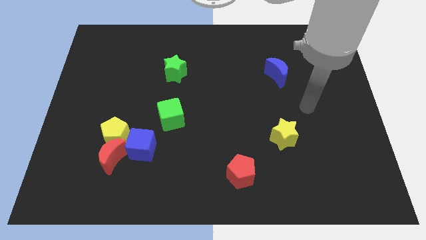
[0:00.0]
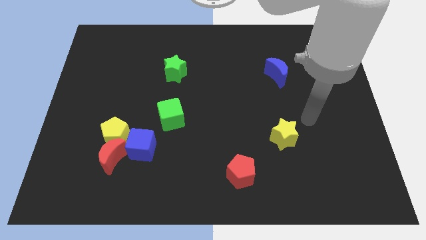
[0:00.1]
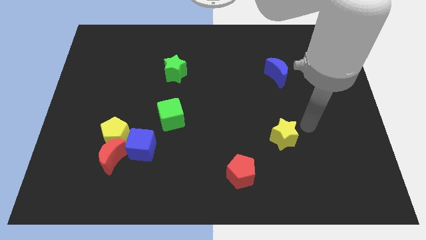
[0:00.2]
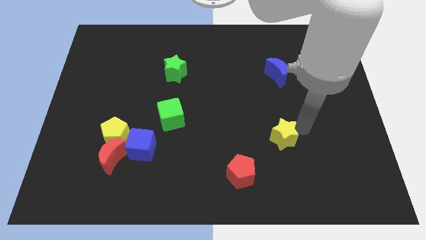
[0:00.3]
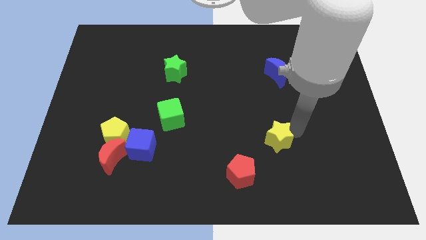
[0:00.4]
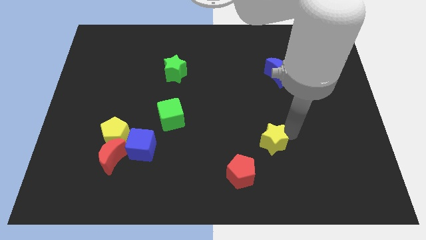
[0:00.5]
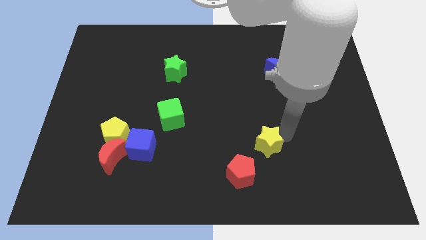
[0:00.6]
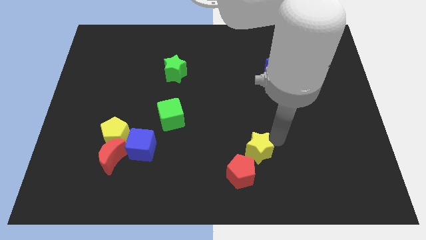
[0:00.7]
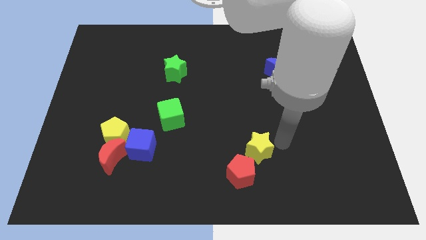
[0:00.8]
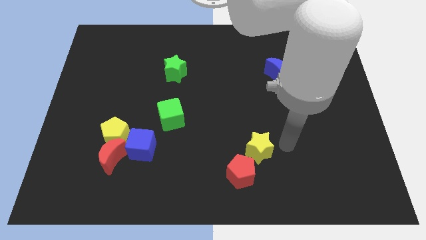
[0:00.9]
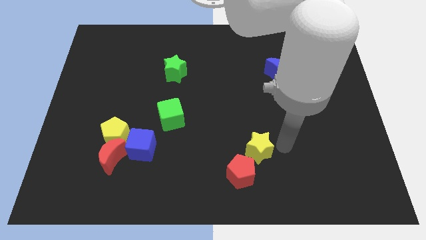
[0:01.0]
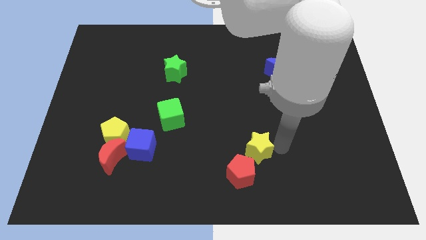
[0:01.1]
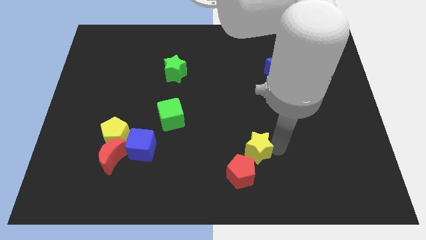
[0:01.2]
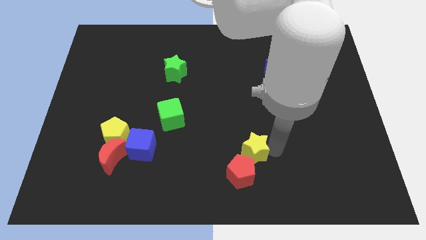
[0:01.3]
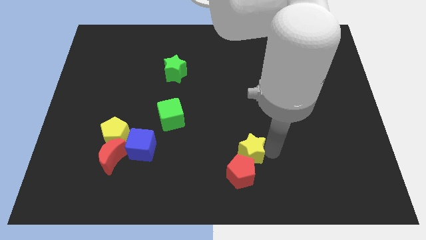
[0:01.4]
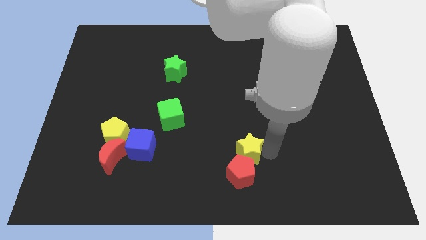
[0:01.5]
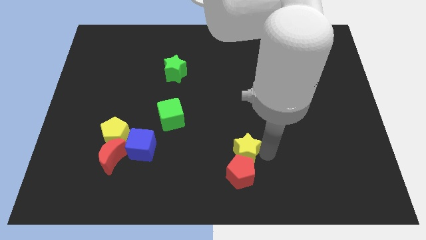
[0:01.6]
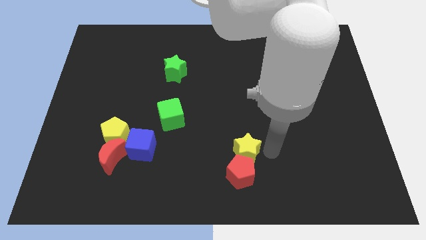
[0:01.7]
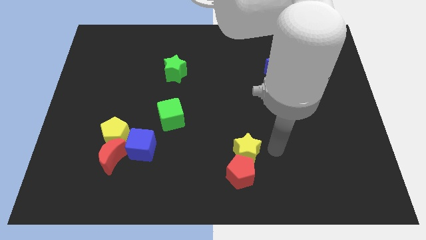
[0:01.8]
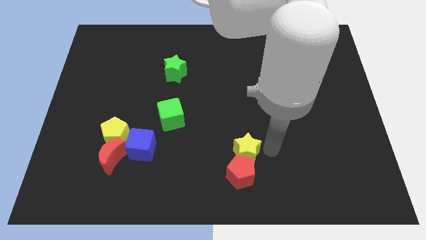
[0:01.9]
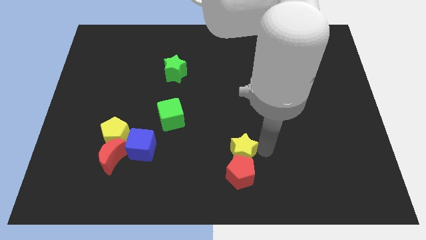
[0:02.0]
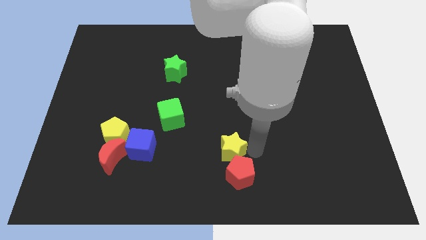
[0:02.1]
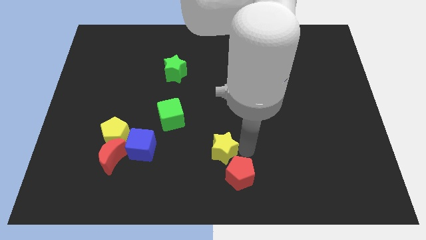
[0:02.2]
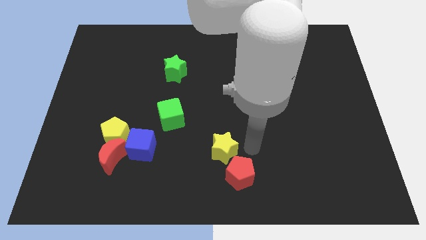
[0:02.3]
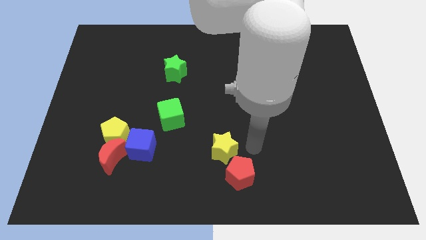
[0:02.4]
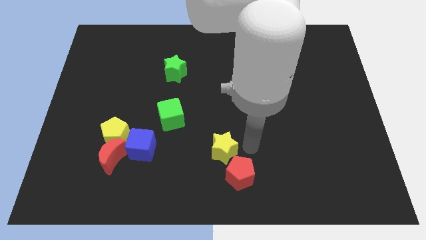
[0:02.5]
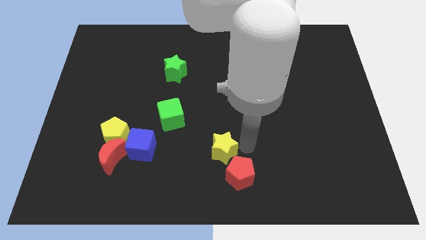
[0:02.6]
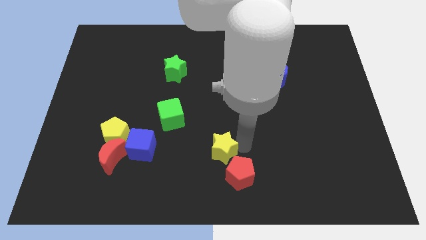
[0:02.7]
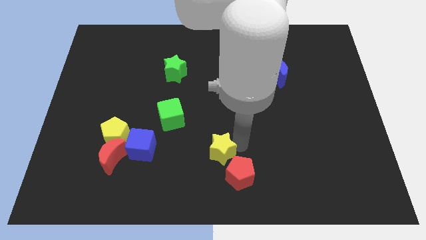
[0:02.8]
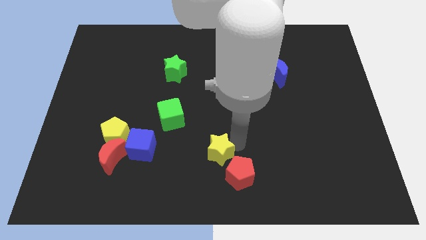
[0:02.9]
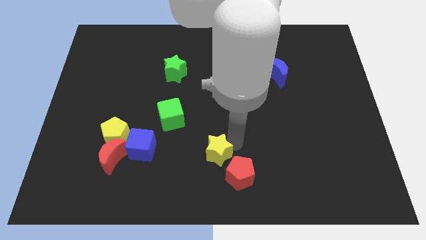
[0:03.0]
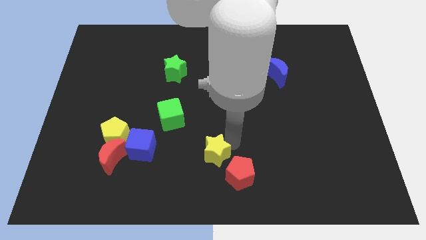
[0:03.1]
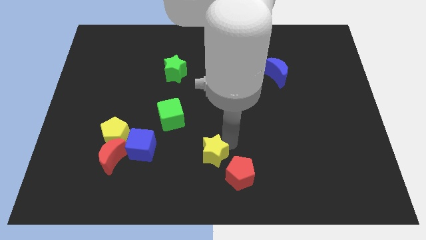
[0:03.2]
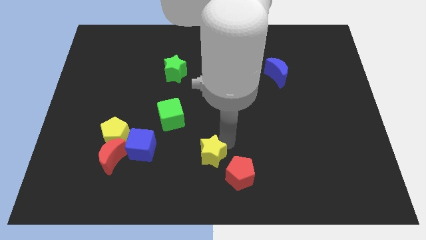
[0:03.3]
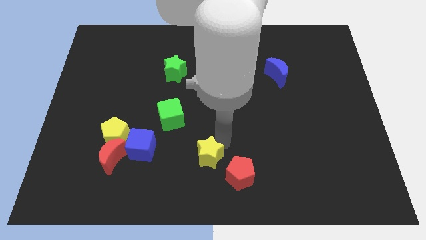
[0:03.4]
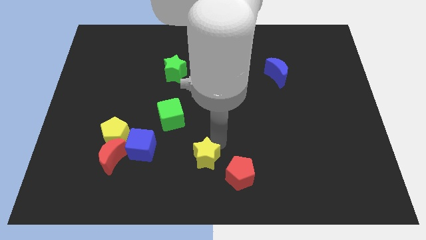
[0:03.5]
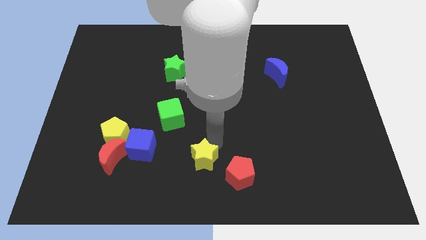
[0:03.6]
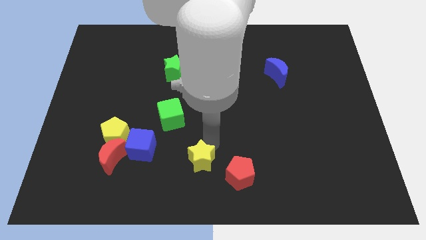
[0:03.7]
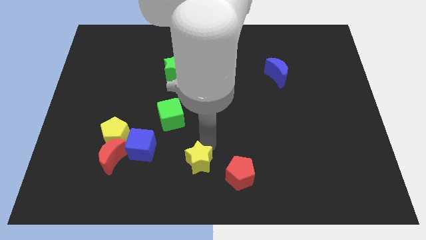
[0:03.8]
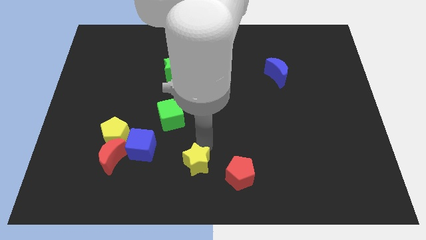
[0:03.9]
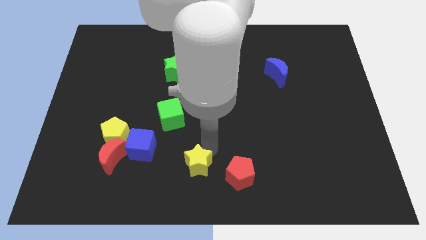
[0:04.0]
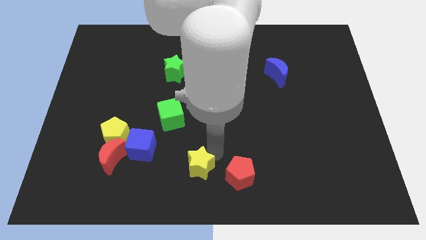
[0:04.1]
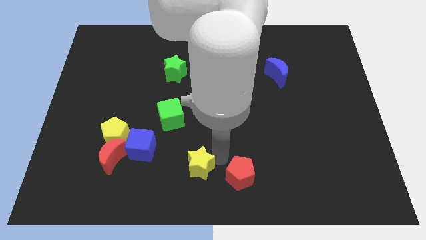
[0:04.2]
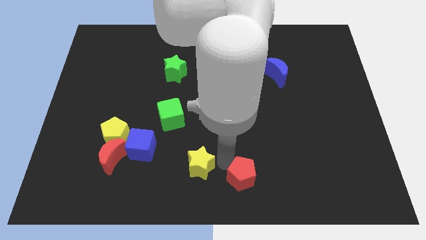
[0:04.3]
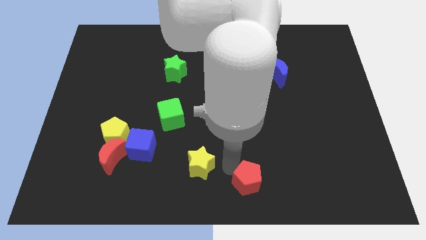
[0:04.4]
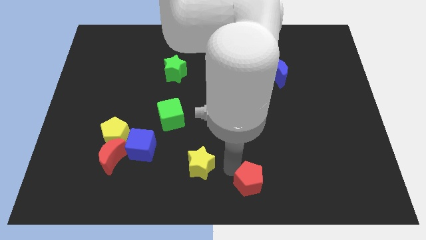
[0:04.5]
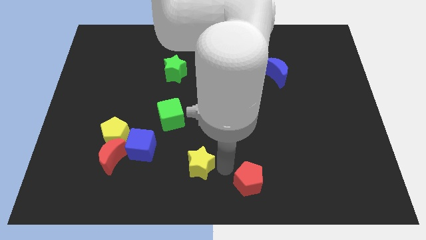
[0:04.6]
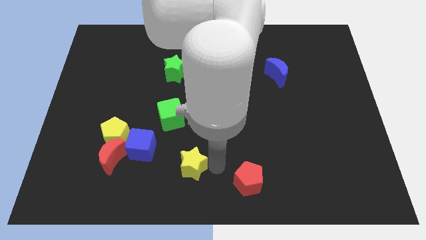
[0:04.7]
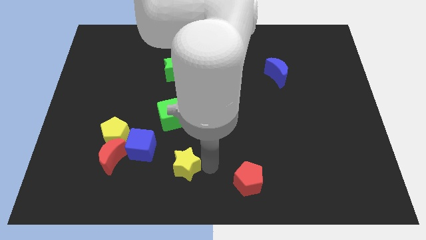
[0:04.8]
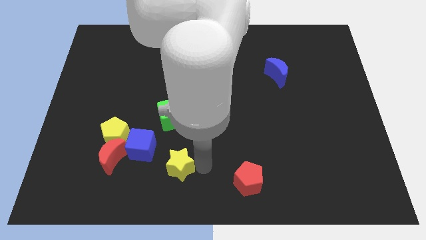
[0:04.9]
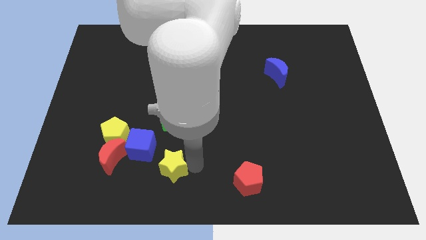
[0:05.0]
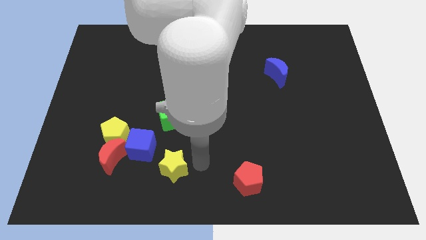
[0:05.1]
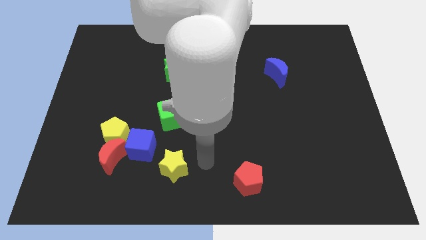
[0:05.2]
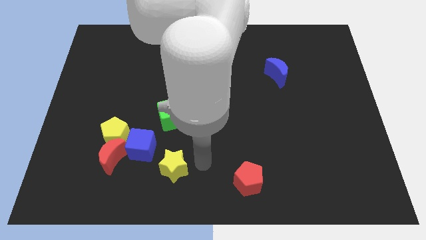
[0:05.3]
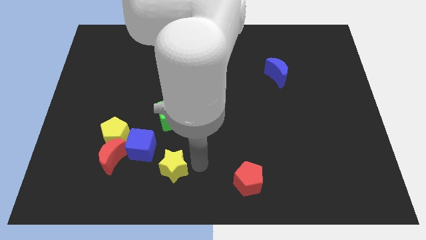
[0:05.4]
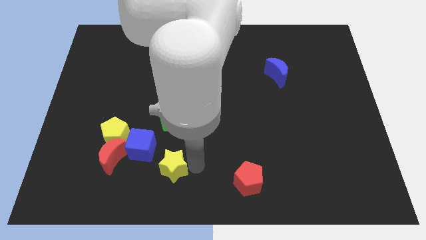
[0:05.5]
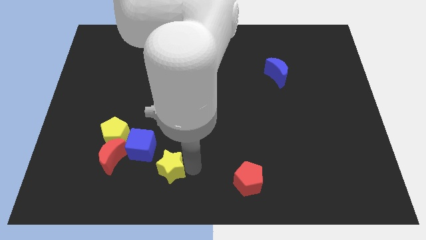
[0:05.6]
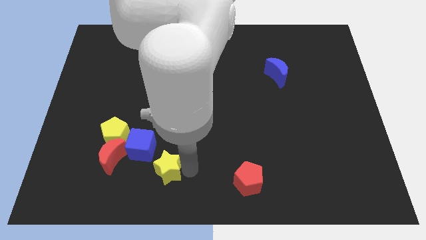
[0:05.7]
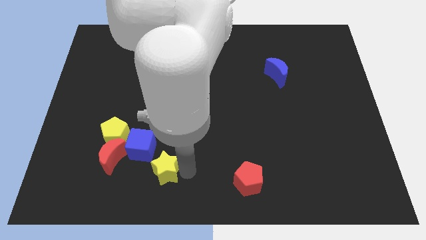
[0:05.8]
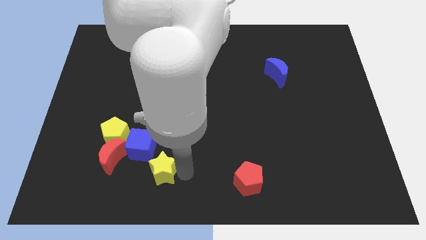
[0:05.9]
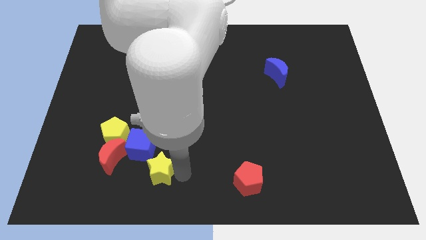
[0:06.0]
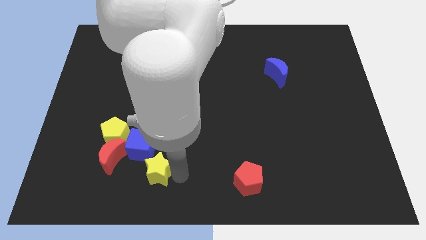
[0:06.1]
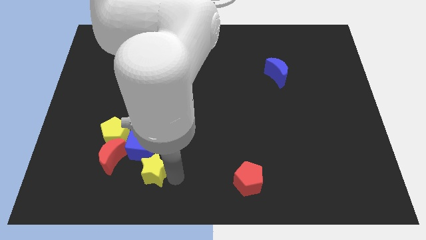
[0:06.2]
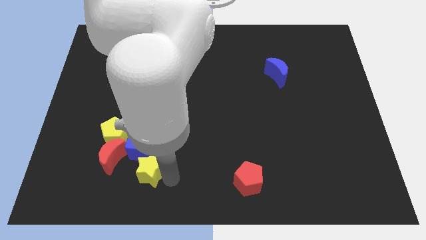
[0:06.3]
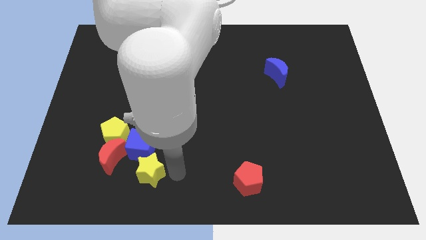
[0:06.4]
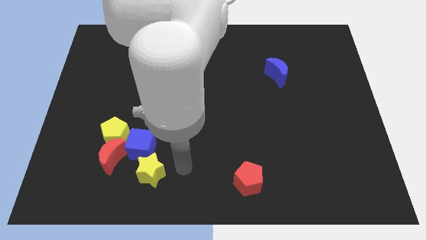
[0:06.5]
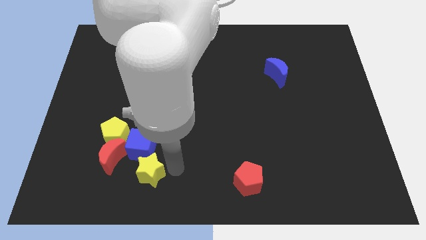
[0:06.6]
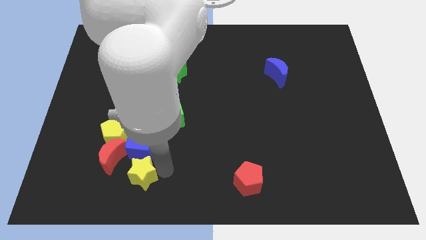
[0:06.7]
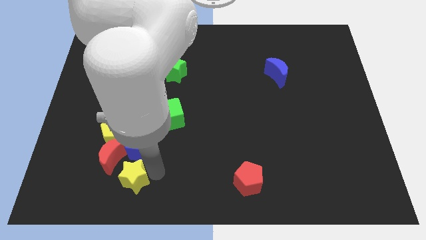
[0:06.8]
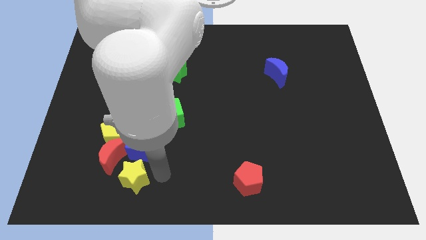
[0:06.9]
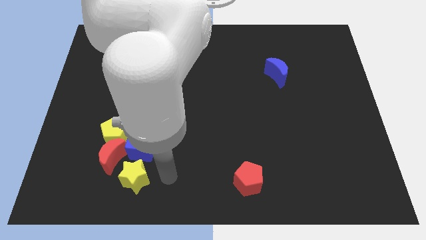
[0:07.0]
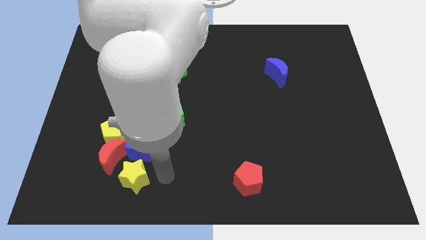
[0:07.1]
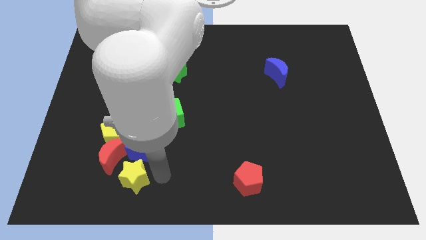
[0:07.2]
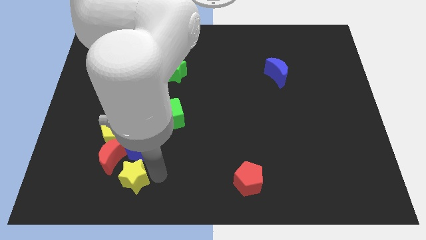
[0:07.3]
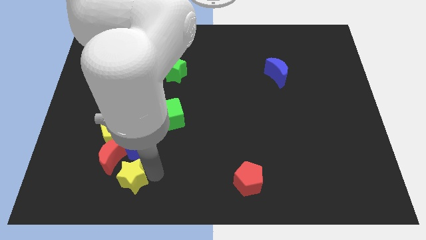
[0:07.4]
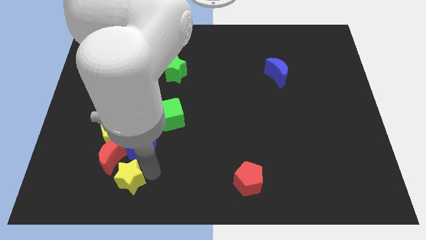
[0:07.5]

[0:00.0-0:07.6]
slide the yellow star to the bottom side of the yellow pentagon

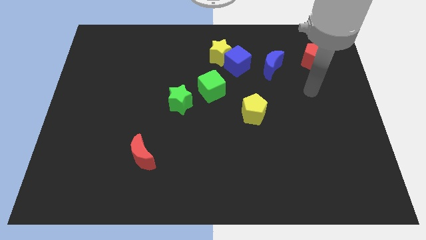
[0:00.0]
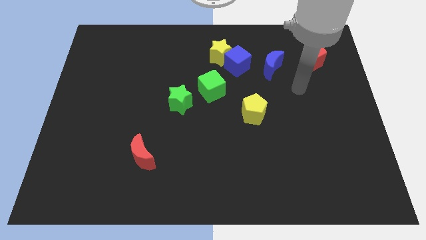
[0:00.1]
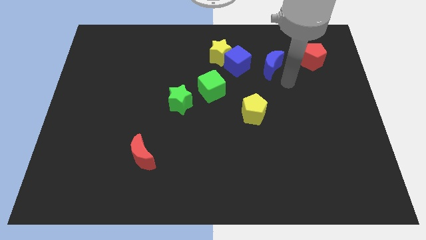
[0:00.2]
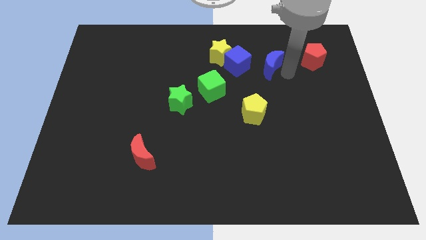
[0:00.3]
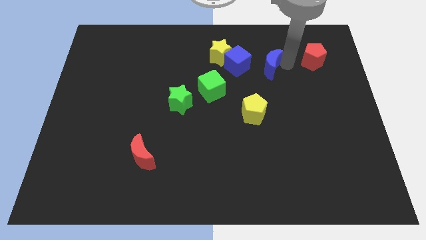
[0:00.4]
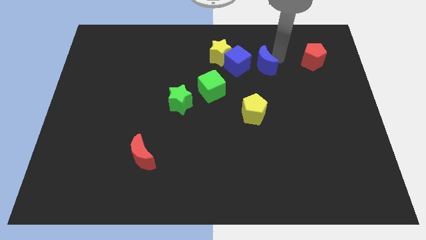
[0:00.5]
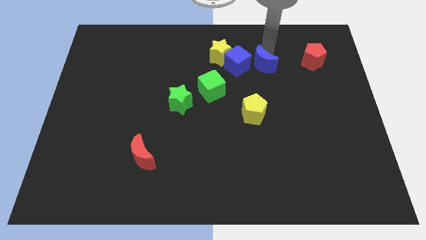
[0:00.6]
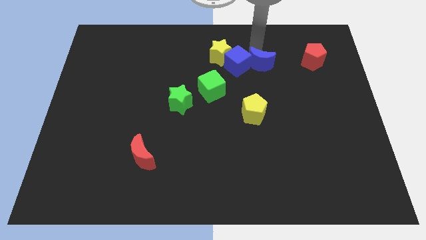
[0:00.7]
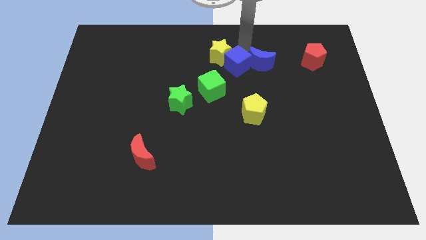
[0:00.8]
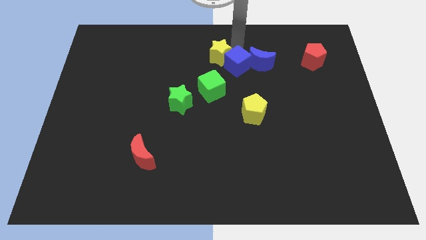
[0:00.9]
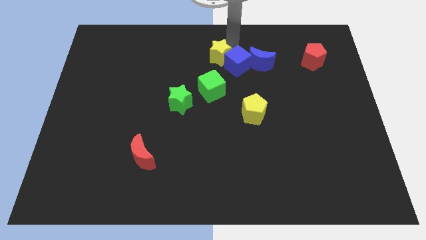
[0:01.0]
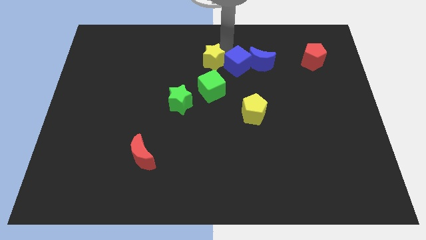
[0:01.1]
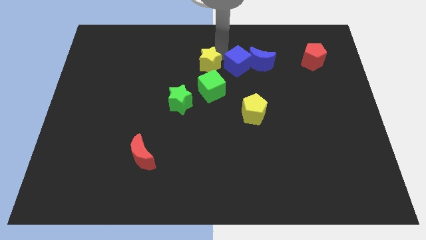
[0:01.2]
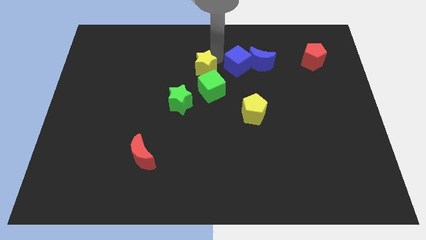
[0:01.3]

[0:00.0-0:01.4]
slide the yellow star to the top left side of the green cube
